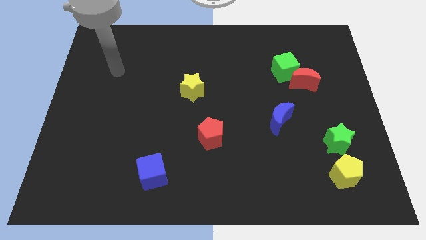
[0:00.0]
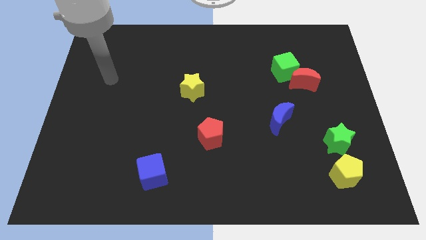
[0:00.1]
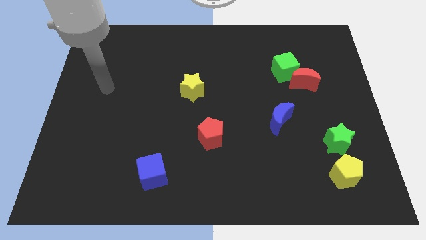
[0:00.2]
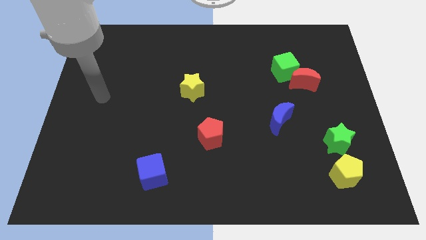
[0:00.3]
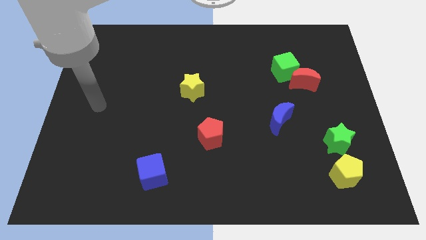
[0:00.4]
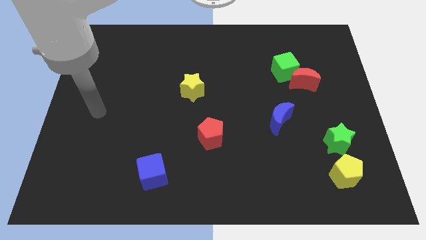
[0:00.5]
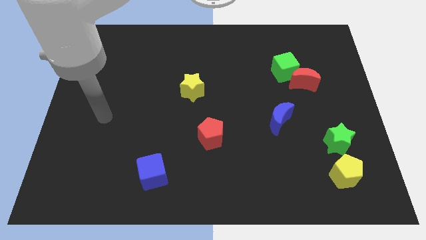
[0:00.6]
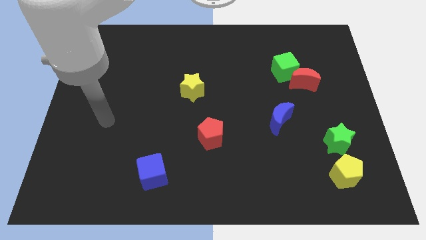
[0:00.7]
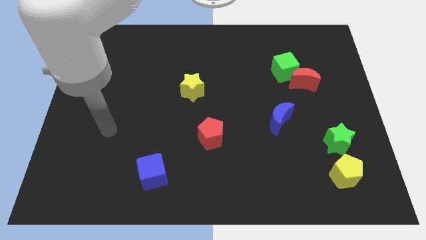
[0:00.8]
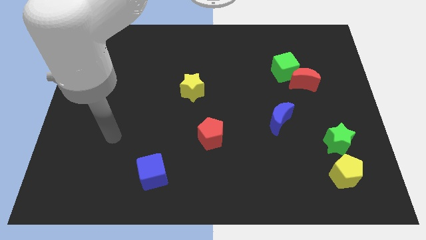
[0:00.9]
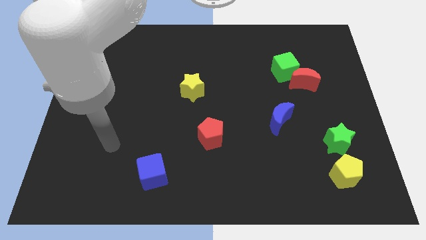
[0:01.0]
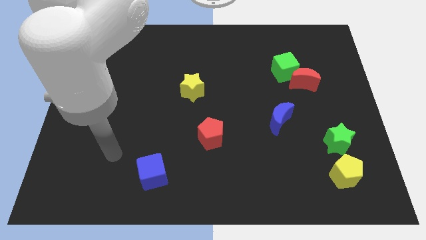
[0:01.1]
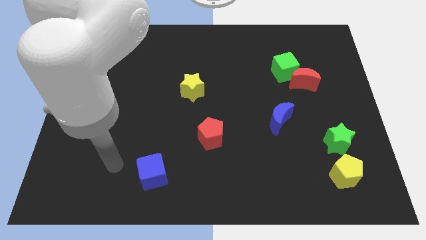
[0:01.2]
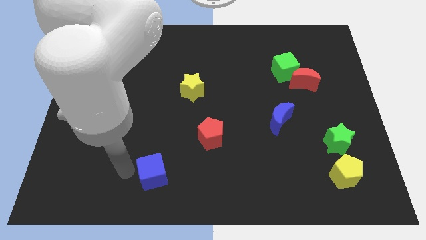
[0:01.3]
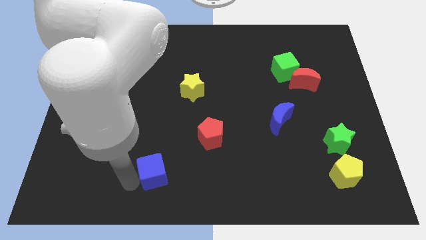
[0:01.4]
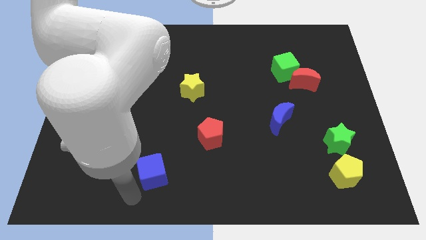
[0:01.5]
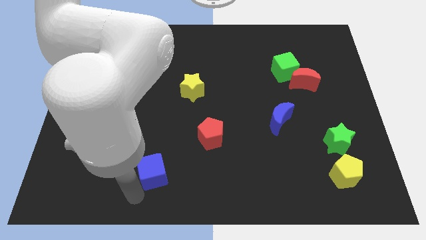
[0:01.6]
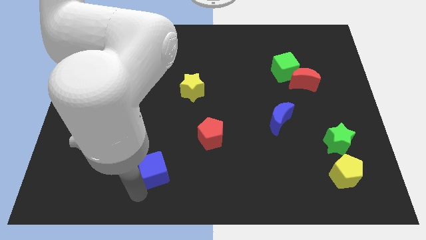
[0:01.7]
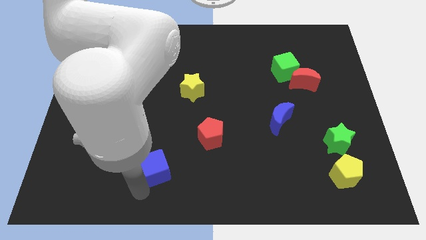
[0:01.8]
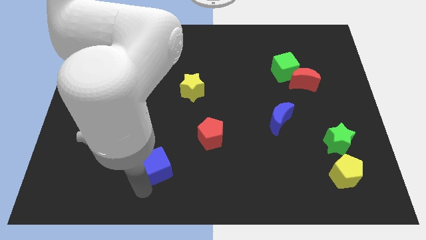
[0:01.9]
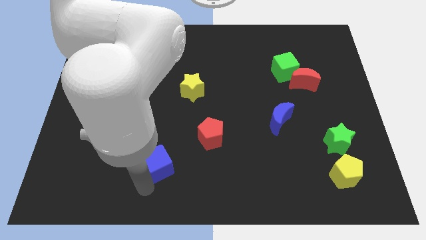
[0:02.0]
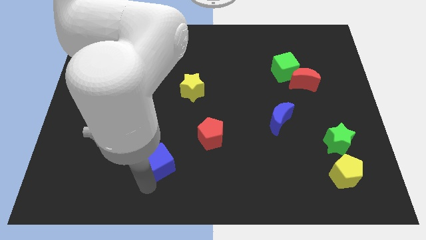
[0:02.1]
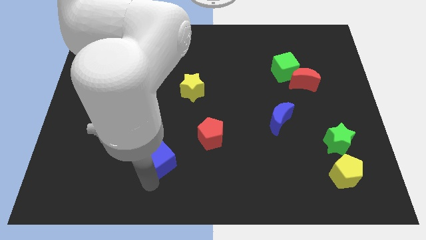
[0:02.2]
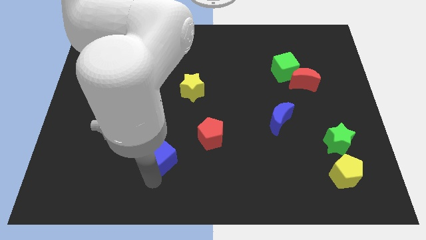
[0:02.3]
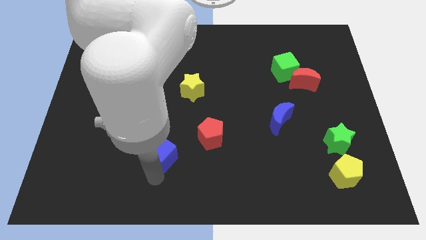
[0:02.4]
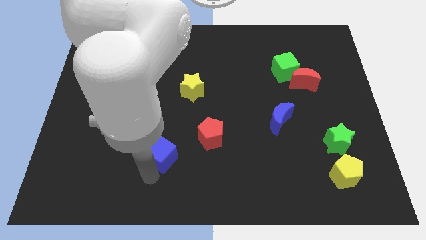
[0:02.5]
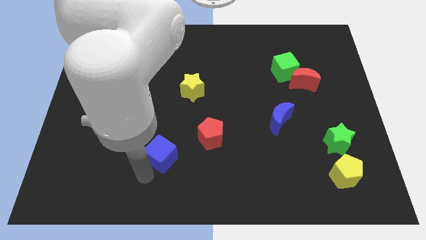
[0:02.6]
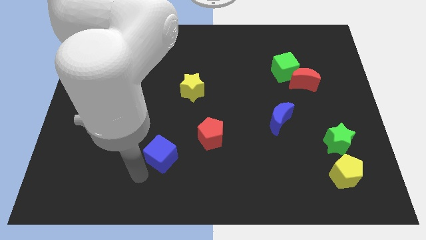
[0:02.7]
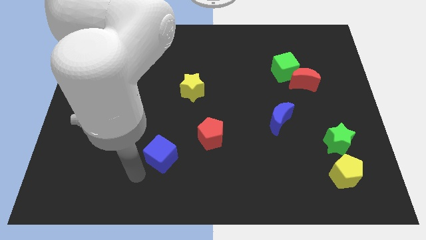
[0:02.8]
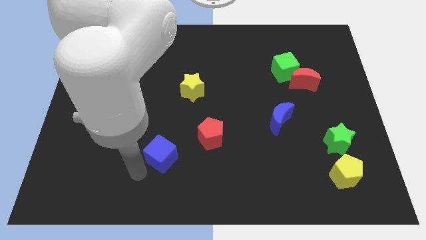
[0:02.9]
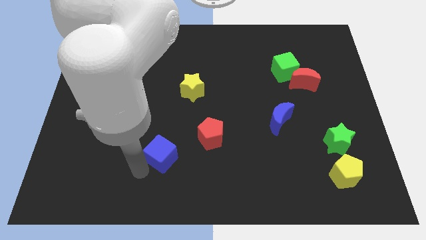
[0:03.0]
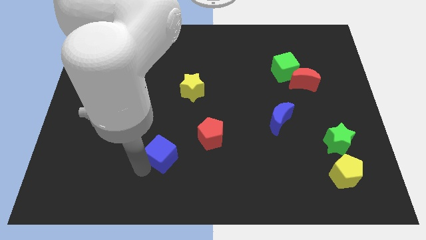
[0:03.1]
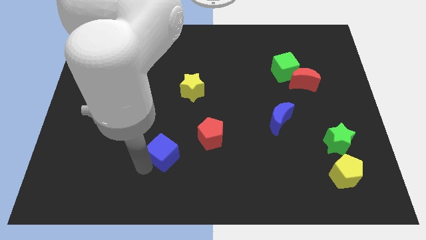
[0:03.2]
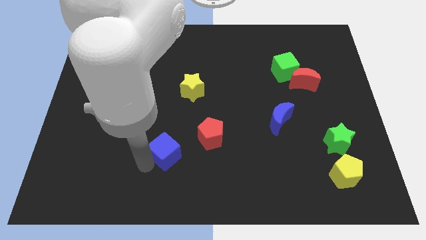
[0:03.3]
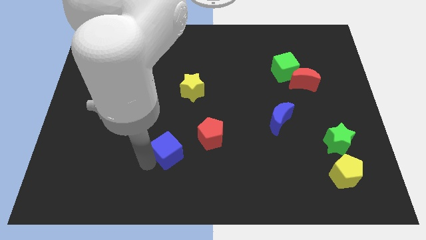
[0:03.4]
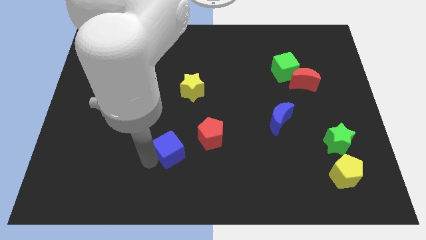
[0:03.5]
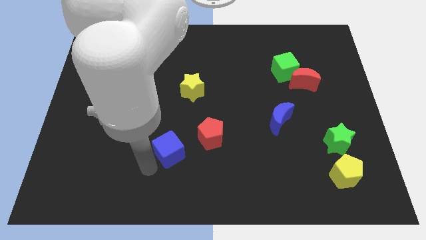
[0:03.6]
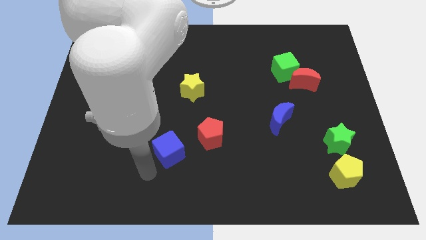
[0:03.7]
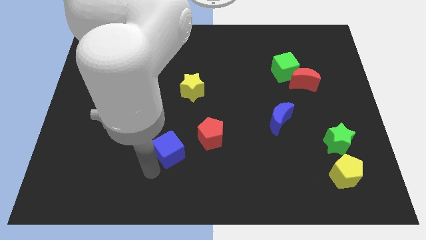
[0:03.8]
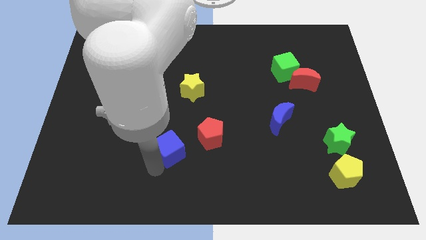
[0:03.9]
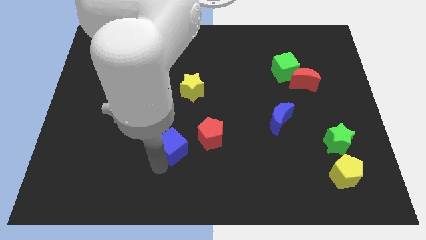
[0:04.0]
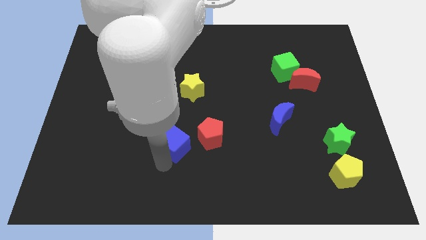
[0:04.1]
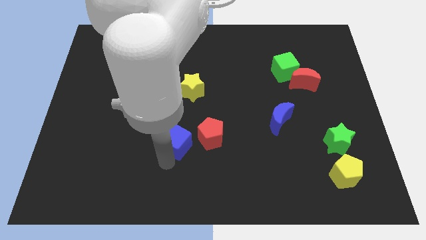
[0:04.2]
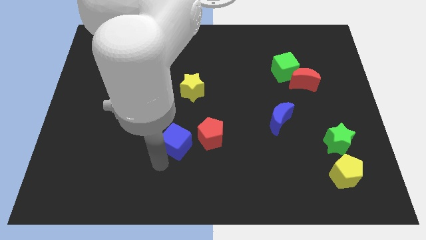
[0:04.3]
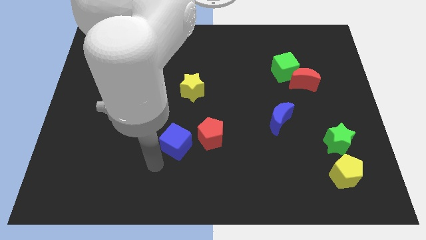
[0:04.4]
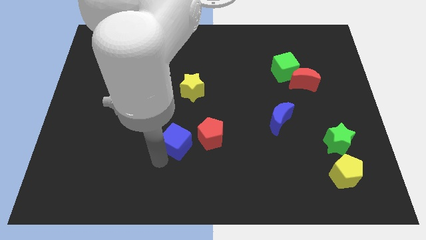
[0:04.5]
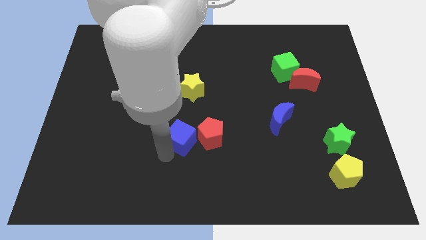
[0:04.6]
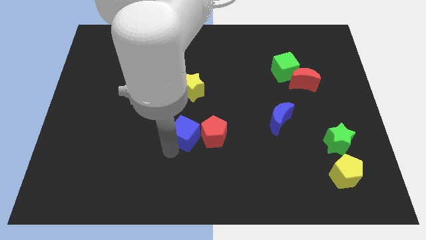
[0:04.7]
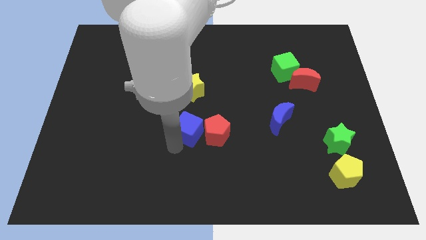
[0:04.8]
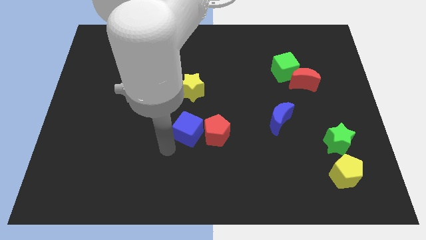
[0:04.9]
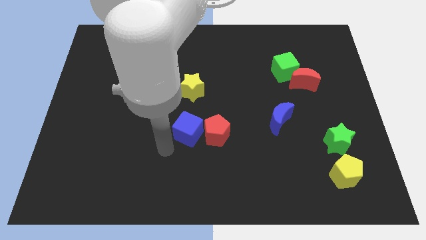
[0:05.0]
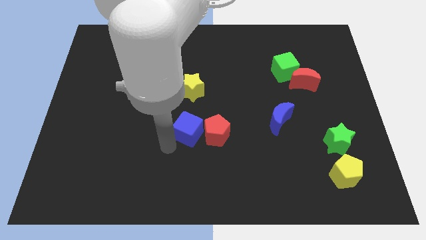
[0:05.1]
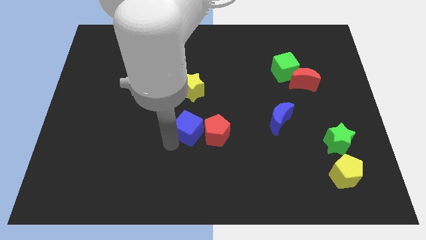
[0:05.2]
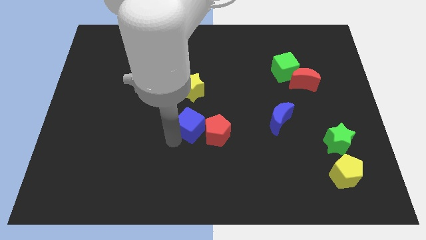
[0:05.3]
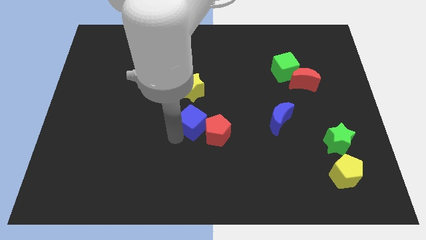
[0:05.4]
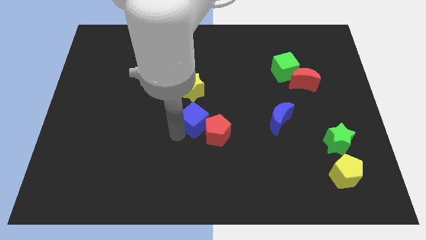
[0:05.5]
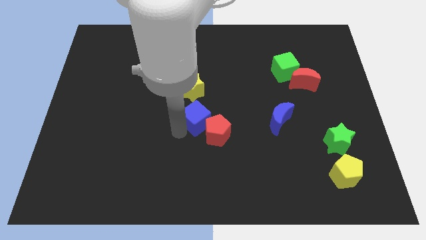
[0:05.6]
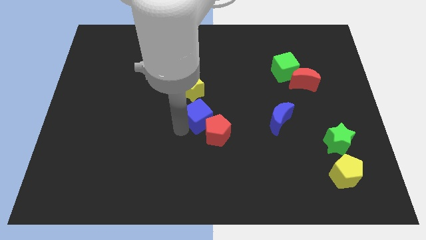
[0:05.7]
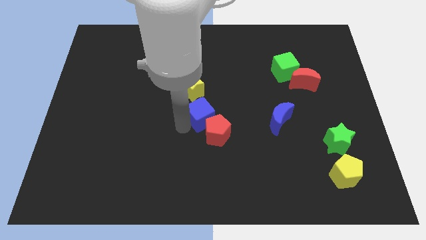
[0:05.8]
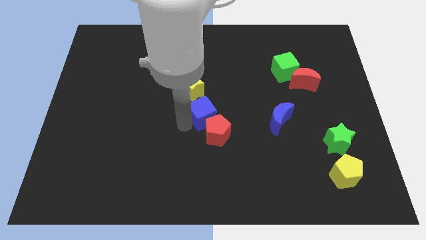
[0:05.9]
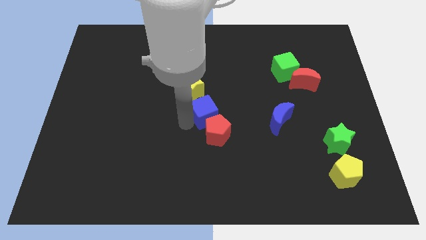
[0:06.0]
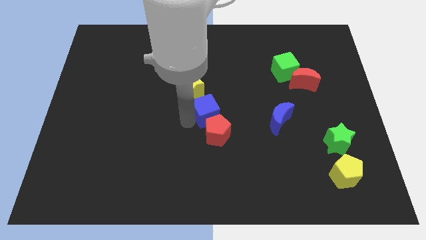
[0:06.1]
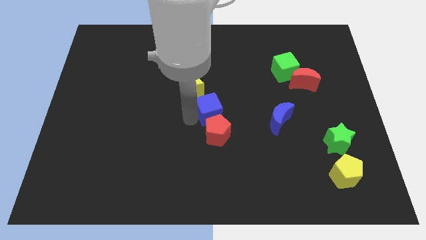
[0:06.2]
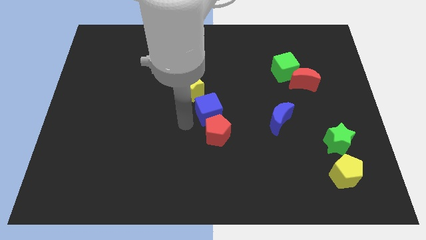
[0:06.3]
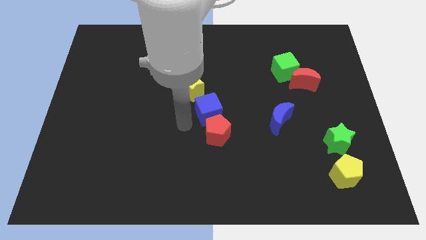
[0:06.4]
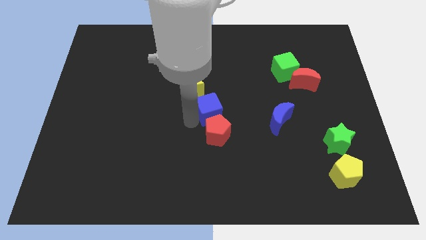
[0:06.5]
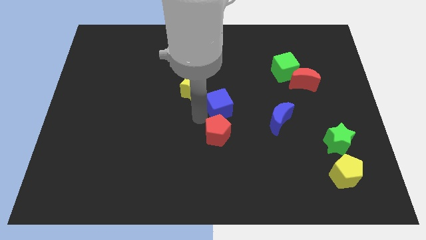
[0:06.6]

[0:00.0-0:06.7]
move the blue cube up and to the right

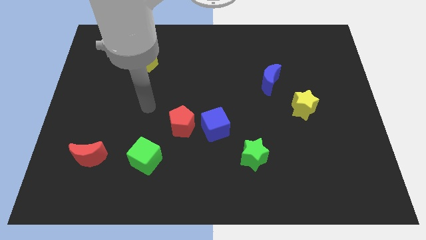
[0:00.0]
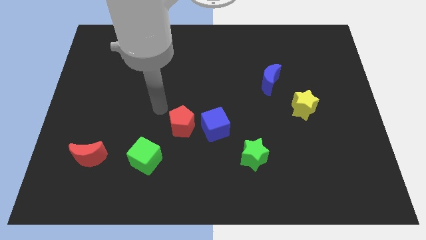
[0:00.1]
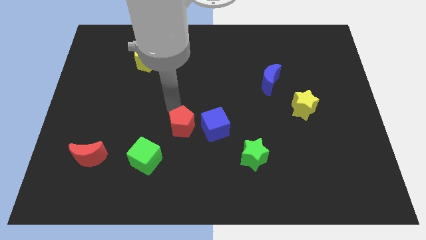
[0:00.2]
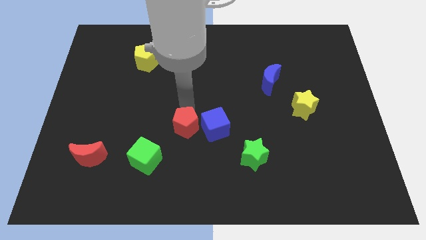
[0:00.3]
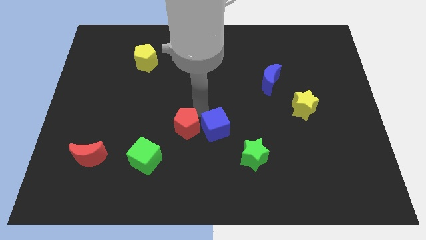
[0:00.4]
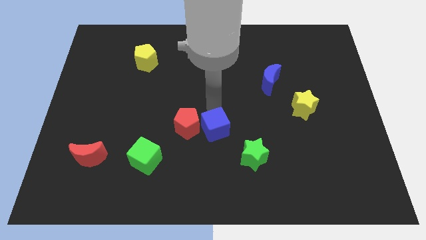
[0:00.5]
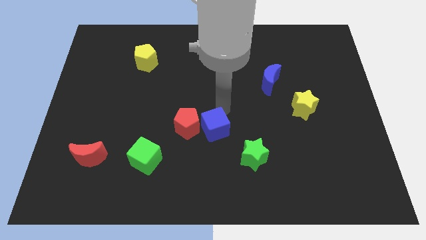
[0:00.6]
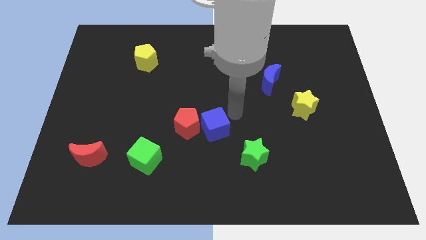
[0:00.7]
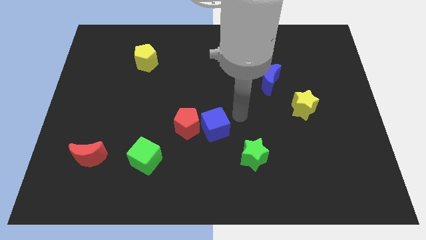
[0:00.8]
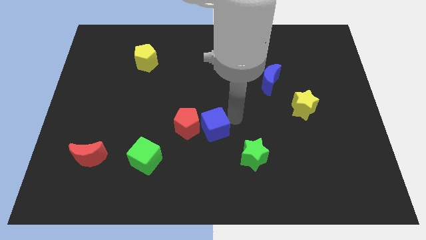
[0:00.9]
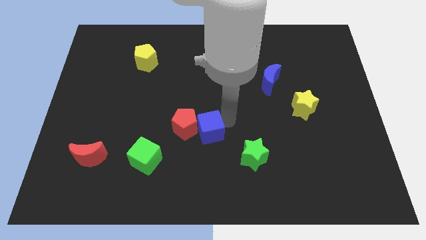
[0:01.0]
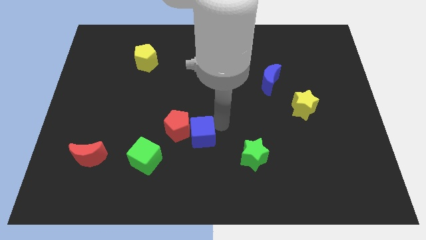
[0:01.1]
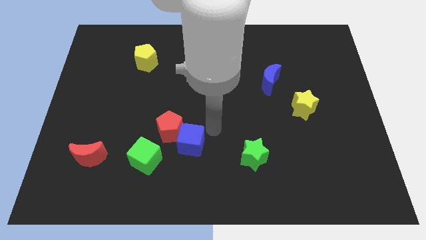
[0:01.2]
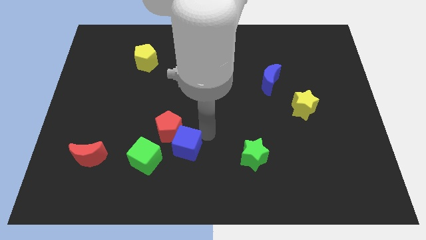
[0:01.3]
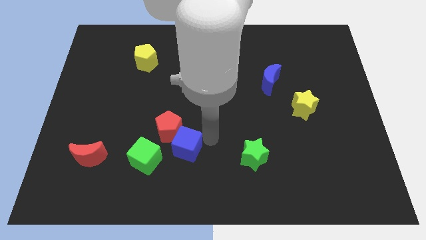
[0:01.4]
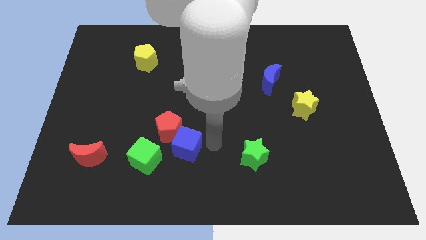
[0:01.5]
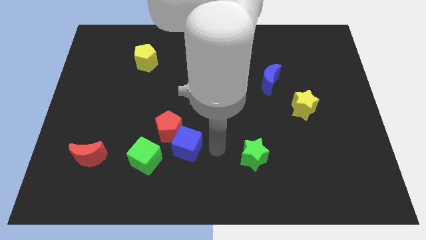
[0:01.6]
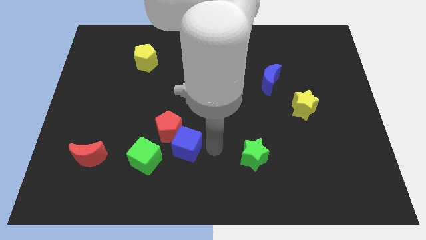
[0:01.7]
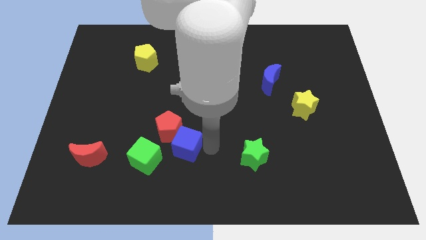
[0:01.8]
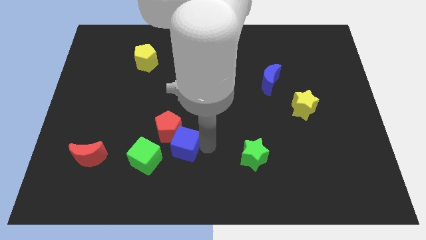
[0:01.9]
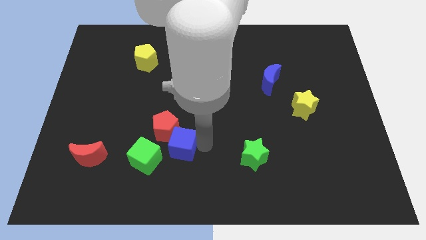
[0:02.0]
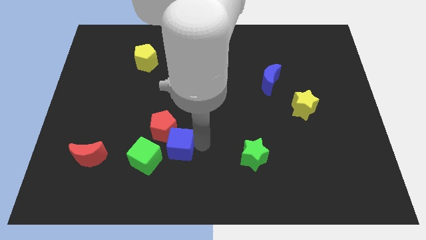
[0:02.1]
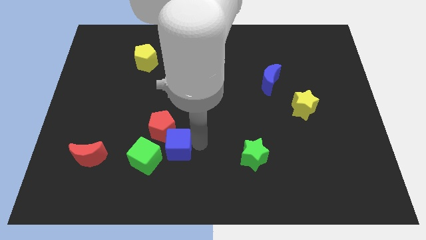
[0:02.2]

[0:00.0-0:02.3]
push the blue cube a little bit left
